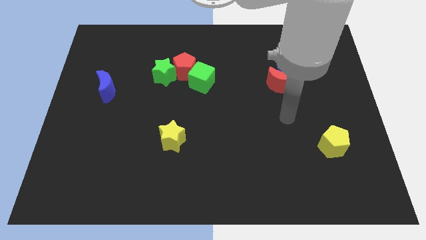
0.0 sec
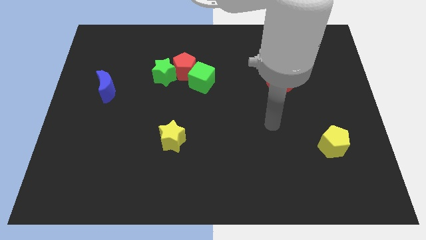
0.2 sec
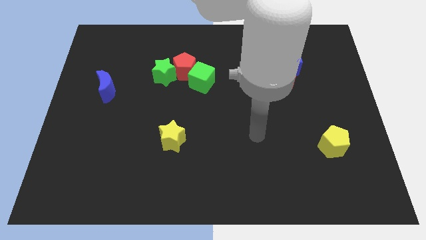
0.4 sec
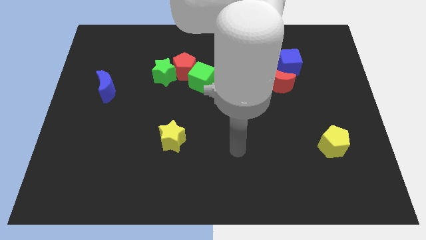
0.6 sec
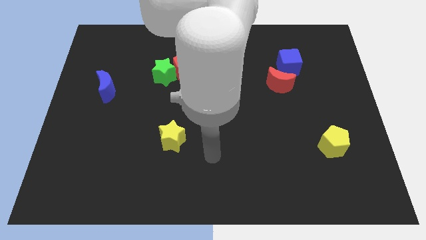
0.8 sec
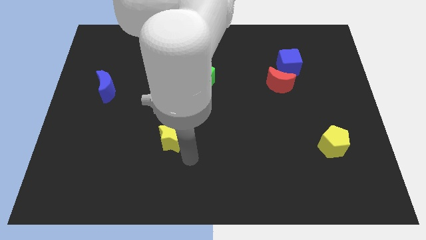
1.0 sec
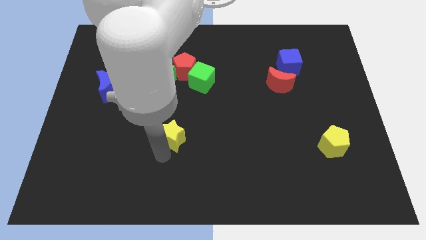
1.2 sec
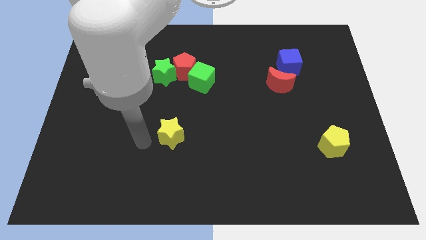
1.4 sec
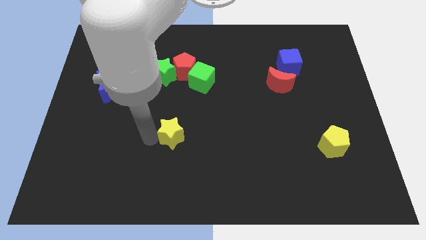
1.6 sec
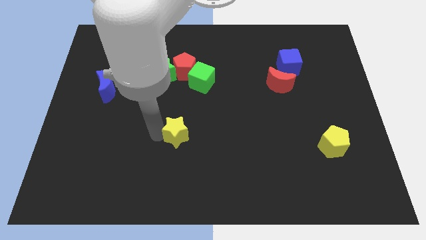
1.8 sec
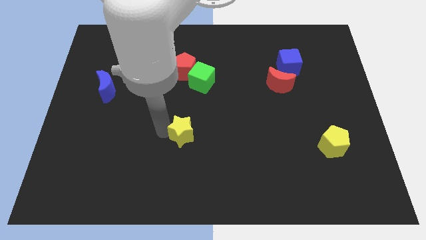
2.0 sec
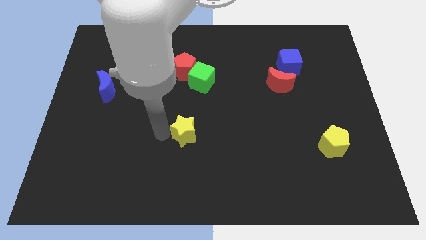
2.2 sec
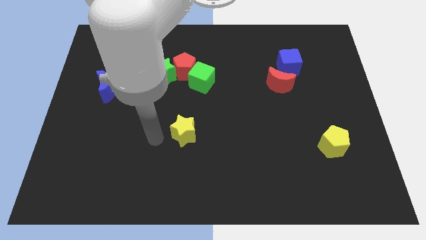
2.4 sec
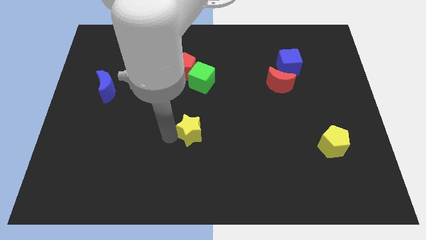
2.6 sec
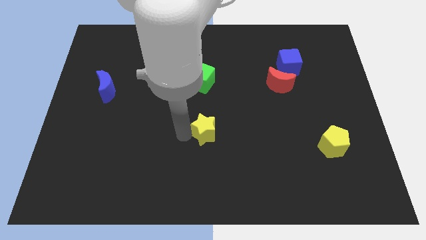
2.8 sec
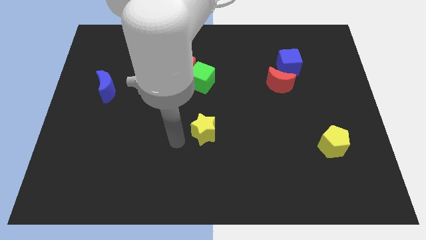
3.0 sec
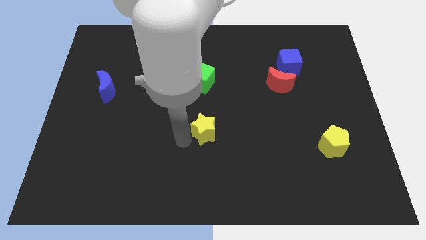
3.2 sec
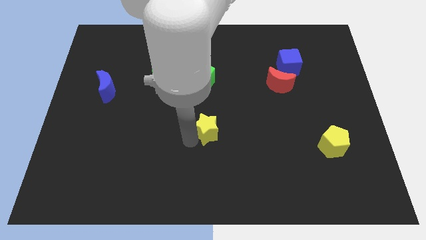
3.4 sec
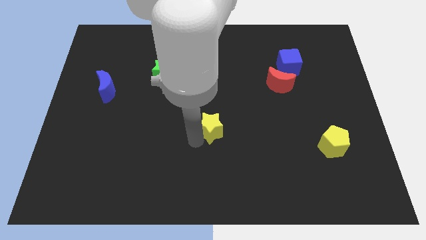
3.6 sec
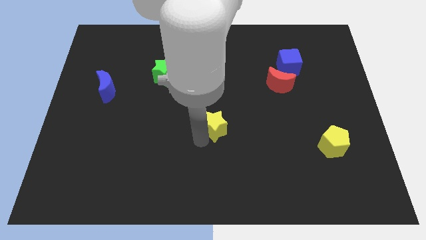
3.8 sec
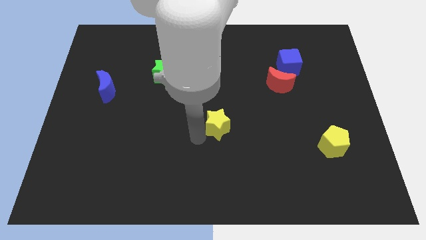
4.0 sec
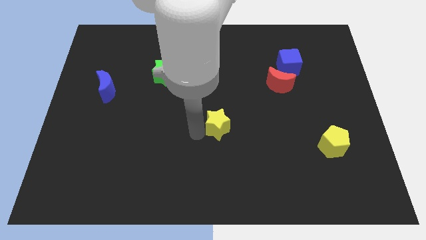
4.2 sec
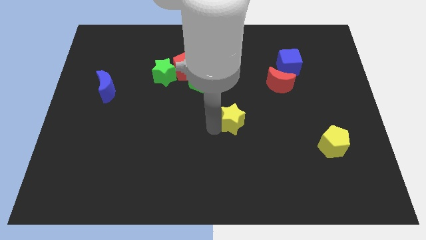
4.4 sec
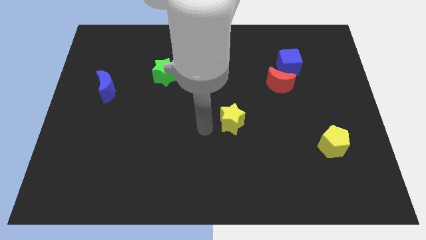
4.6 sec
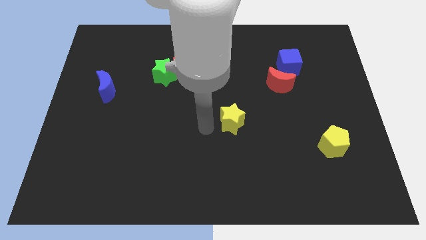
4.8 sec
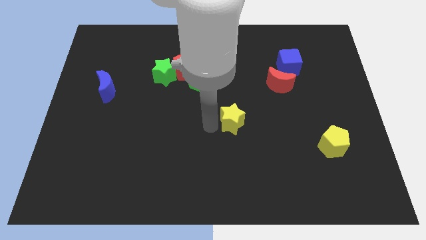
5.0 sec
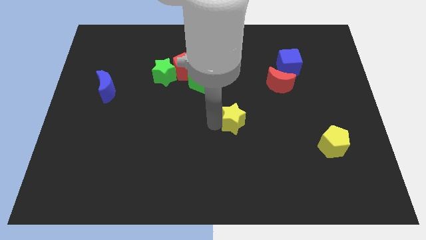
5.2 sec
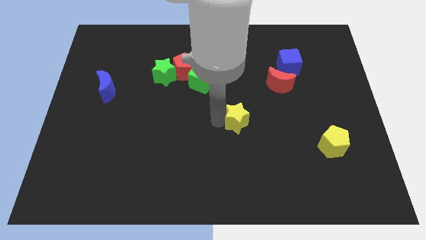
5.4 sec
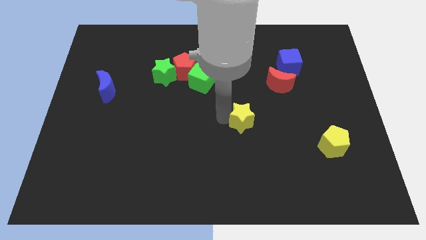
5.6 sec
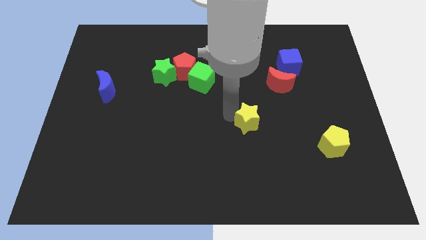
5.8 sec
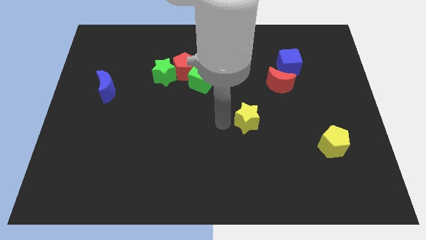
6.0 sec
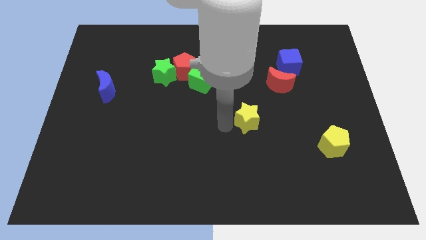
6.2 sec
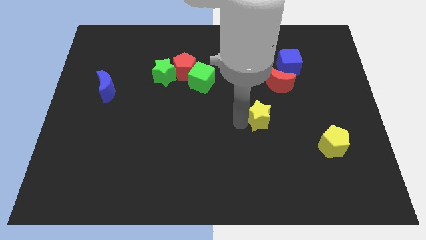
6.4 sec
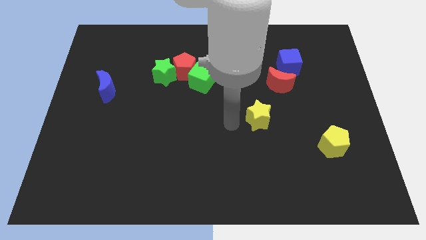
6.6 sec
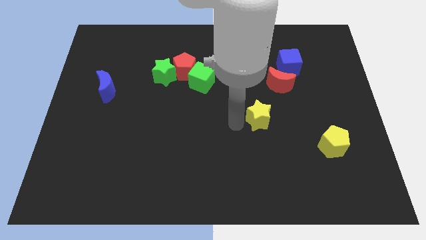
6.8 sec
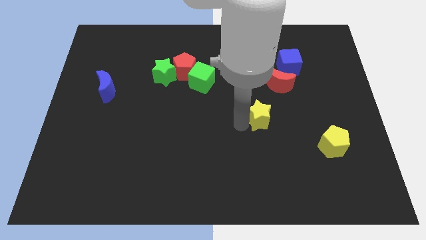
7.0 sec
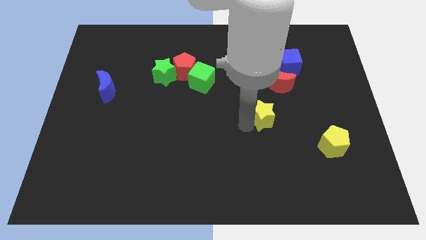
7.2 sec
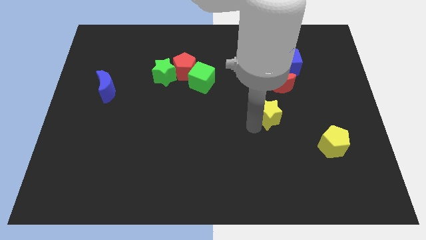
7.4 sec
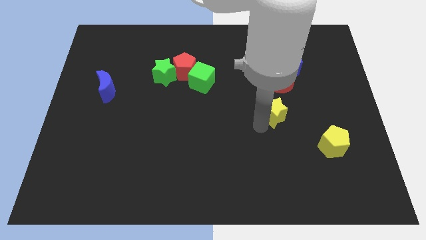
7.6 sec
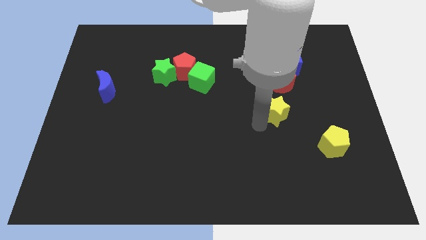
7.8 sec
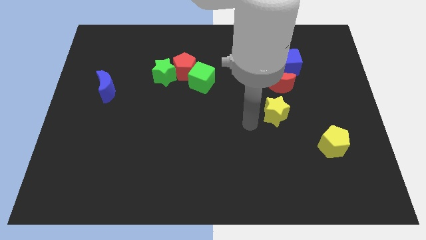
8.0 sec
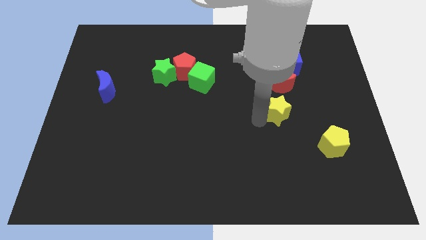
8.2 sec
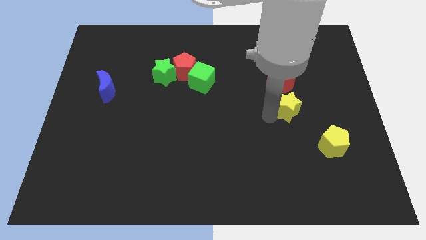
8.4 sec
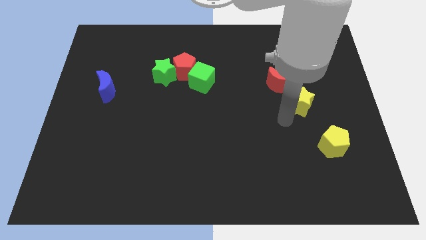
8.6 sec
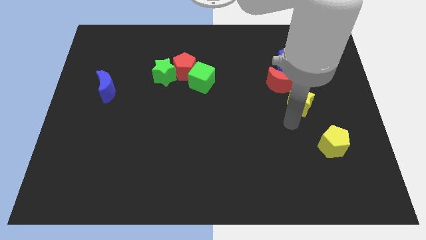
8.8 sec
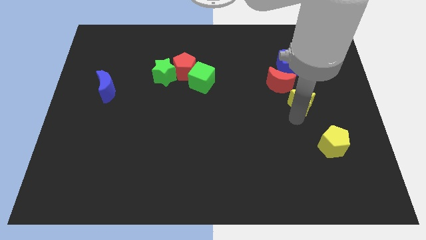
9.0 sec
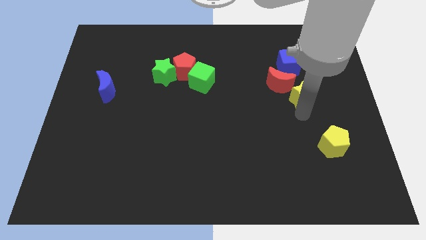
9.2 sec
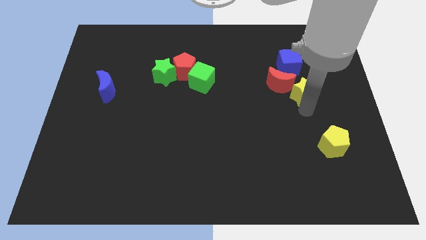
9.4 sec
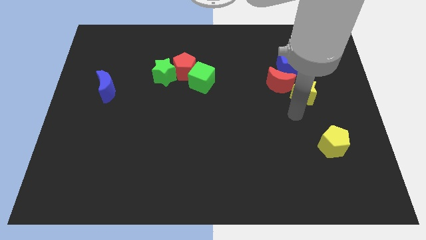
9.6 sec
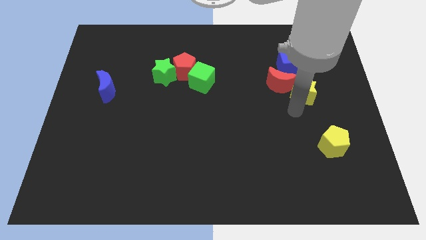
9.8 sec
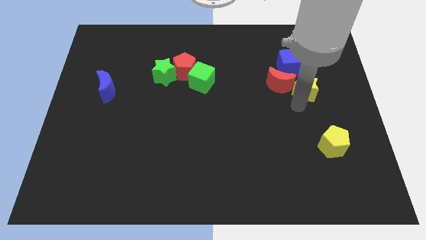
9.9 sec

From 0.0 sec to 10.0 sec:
put the yellow star to the bottom right of the blue cube

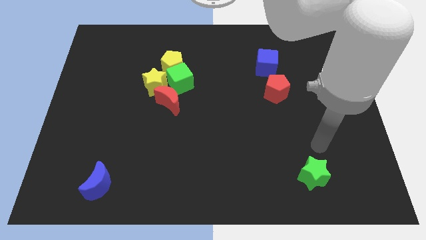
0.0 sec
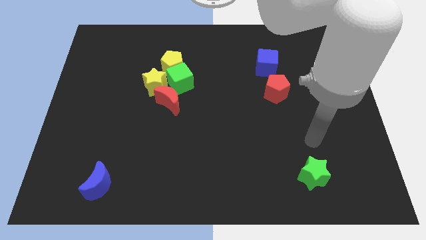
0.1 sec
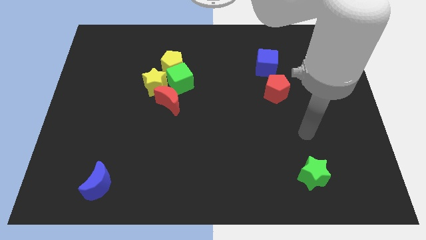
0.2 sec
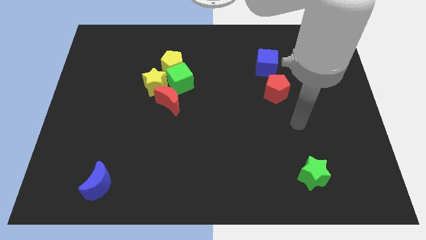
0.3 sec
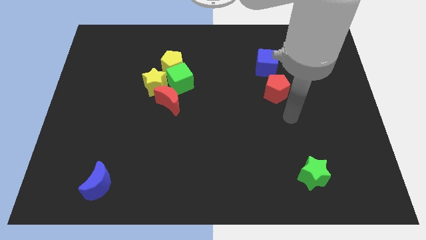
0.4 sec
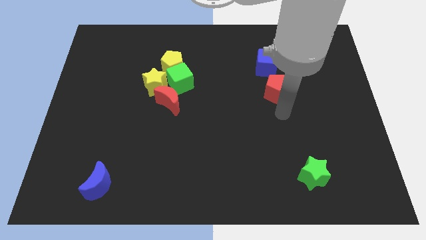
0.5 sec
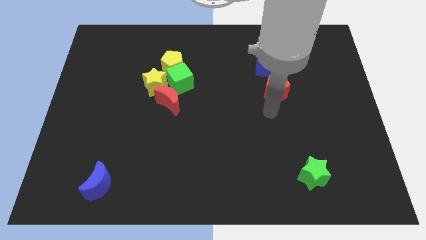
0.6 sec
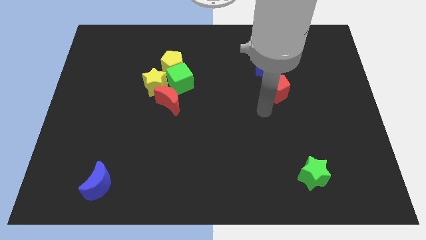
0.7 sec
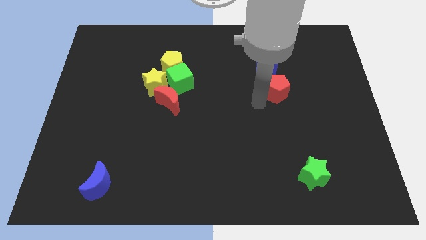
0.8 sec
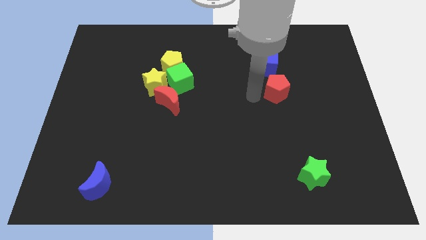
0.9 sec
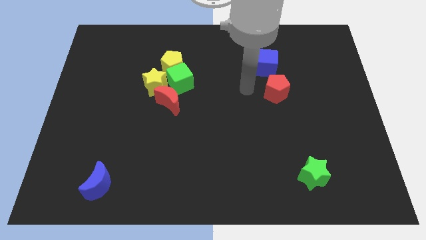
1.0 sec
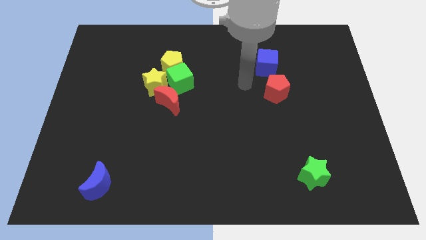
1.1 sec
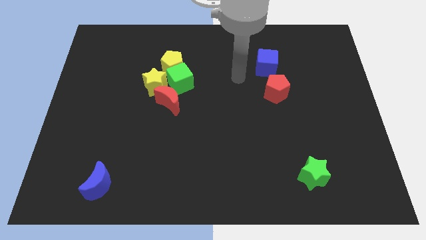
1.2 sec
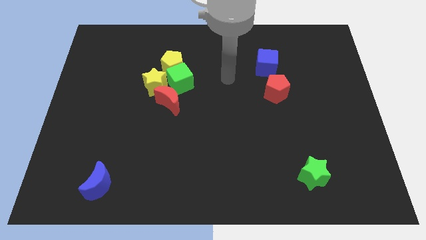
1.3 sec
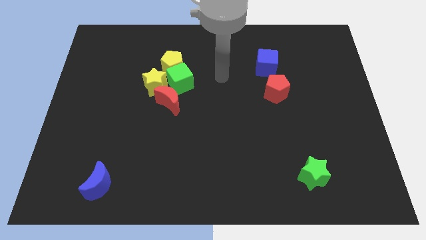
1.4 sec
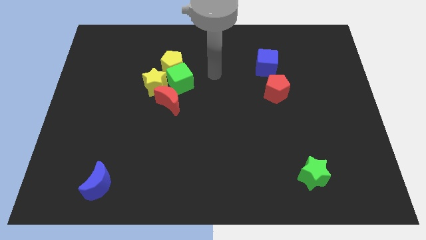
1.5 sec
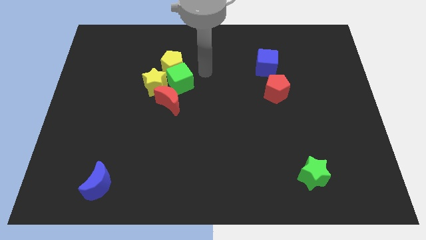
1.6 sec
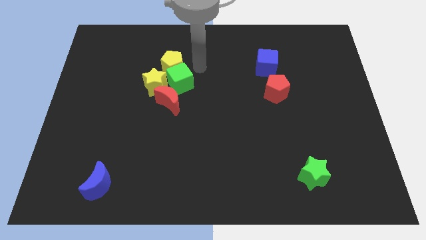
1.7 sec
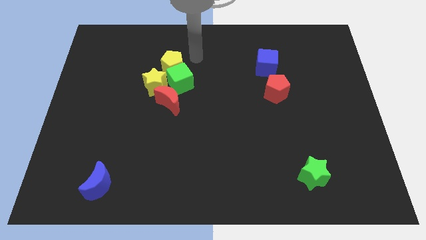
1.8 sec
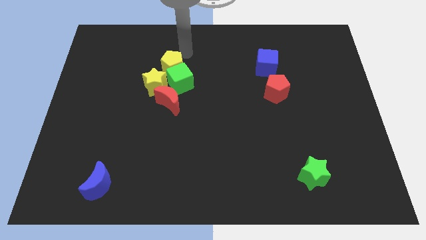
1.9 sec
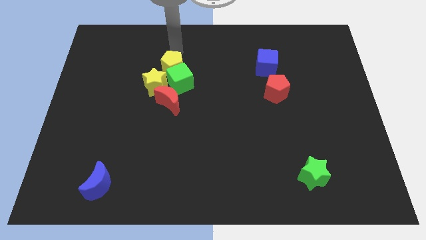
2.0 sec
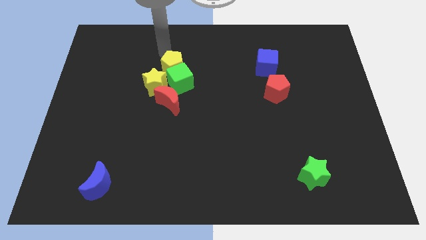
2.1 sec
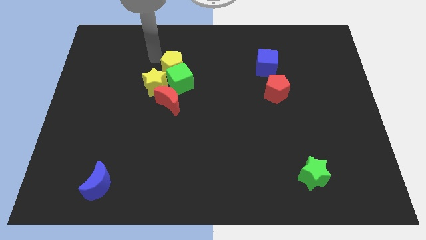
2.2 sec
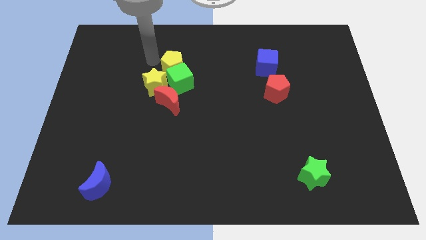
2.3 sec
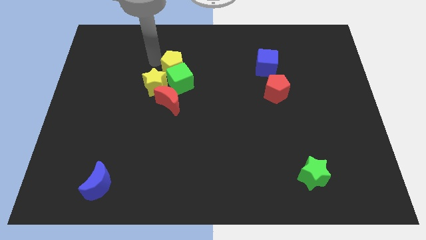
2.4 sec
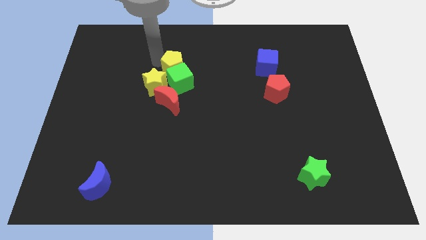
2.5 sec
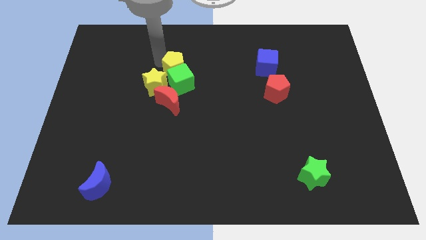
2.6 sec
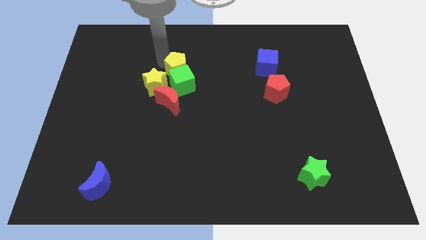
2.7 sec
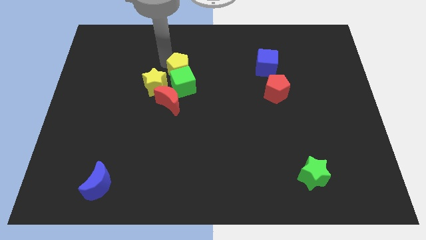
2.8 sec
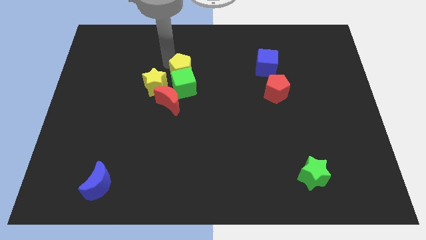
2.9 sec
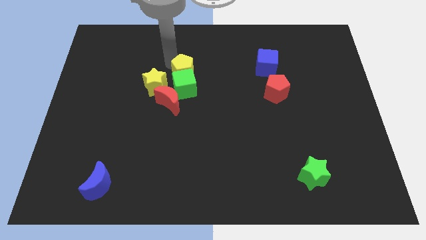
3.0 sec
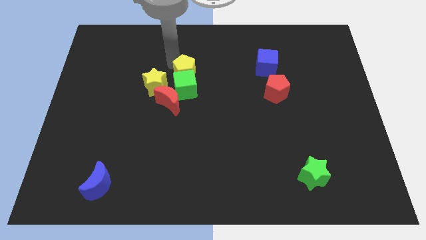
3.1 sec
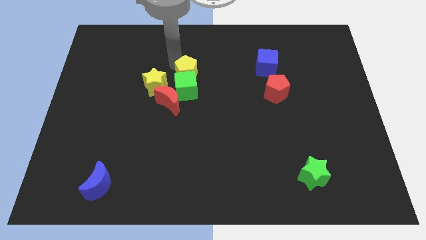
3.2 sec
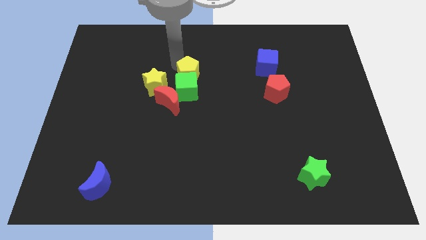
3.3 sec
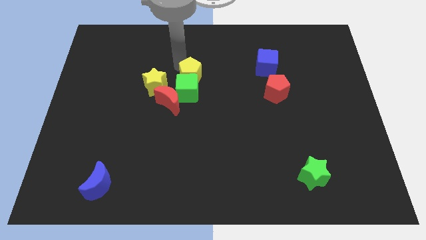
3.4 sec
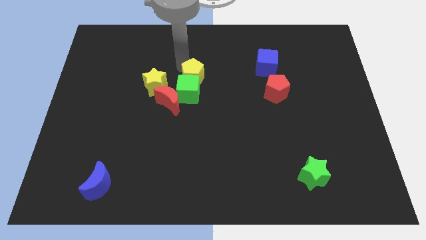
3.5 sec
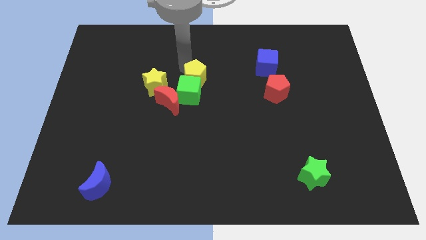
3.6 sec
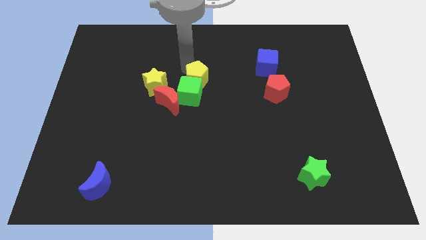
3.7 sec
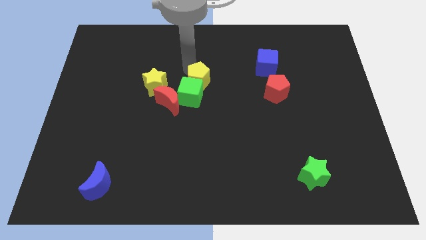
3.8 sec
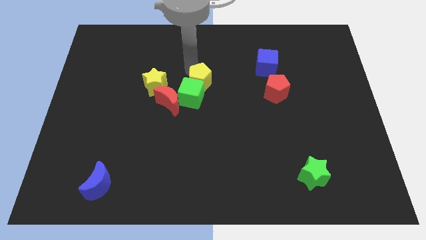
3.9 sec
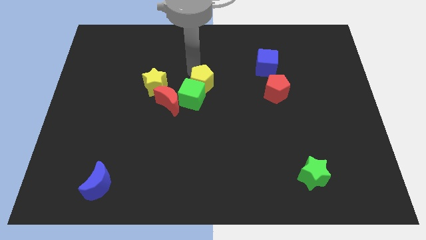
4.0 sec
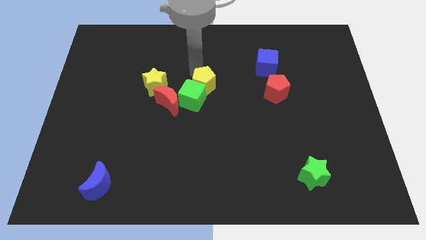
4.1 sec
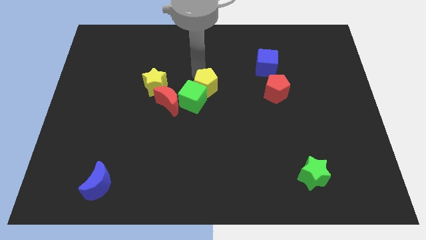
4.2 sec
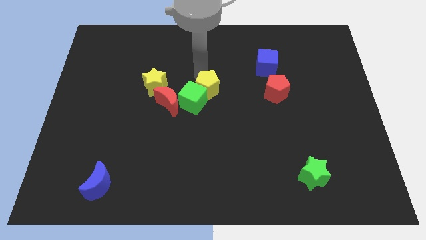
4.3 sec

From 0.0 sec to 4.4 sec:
move the yellow pentagon to the right of the red moon
